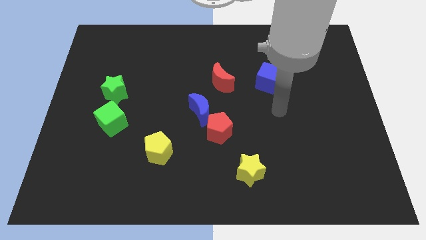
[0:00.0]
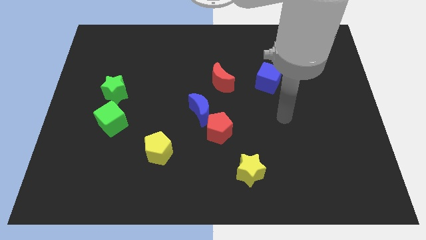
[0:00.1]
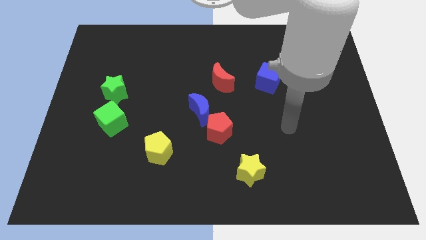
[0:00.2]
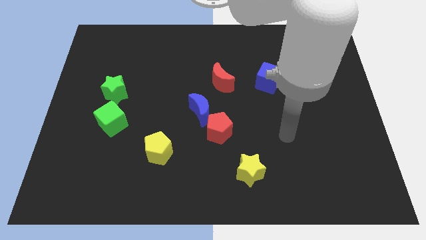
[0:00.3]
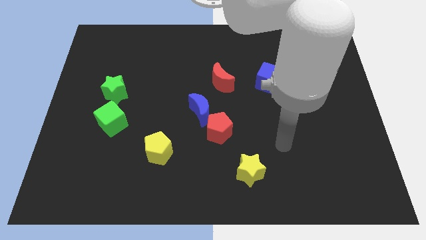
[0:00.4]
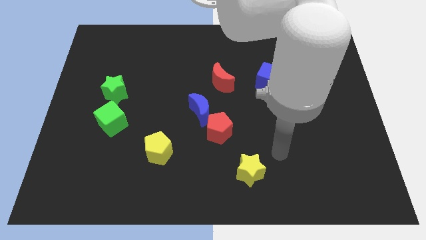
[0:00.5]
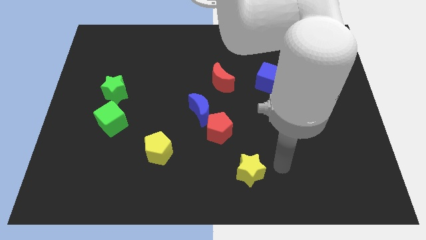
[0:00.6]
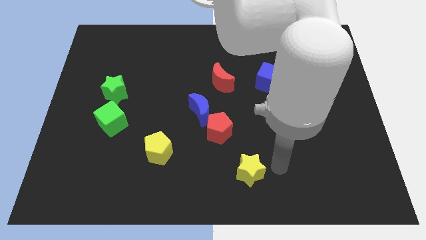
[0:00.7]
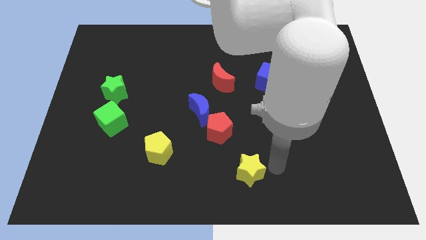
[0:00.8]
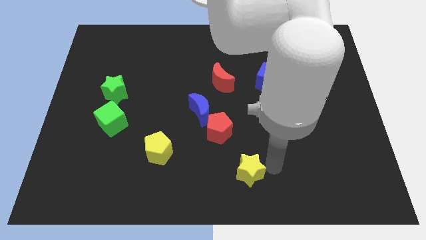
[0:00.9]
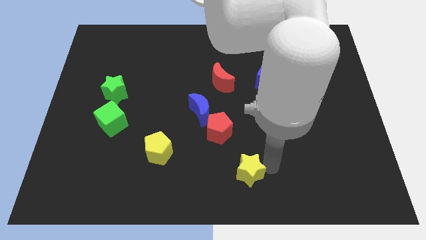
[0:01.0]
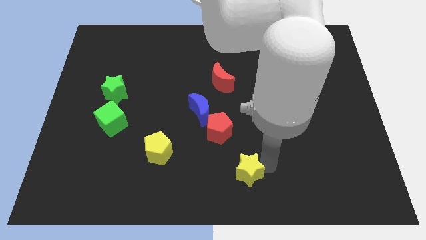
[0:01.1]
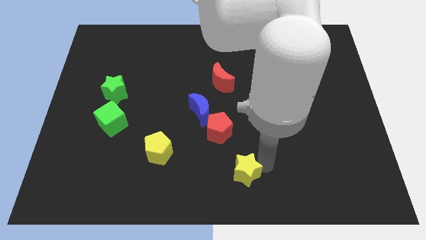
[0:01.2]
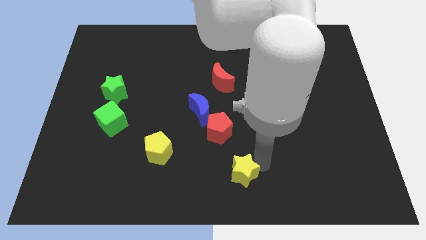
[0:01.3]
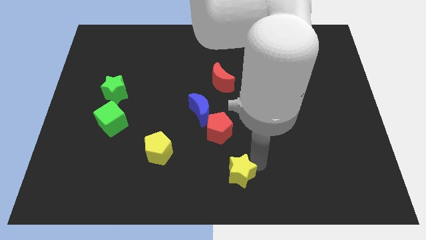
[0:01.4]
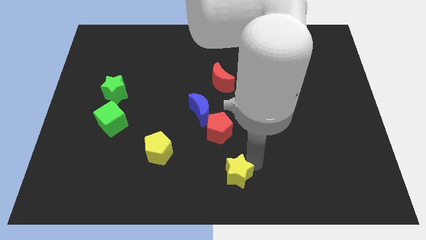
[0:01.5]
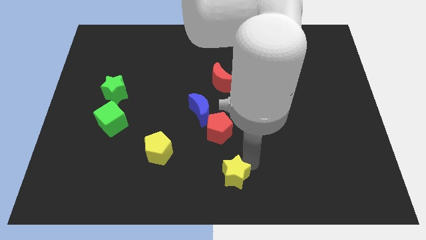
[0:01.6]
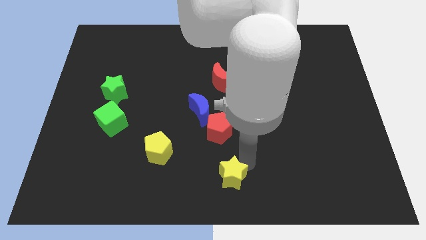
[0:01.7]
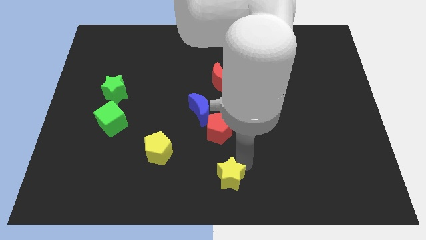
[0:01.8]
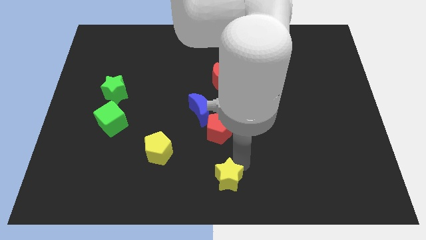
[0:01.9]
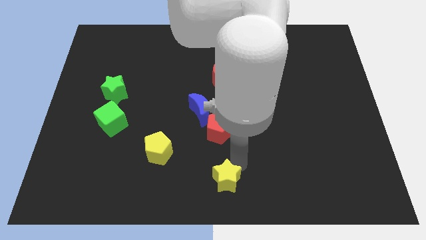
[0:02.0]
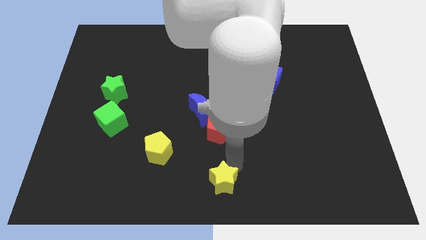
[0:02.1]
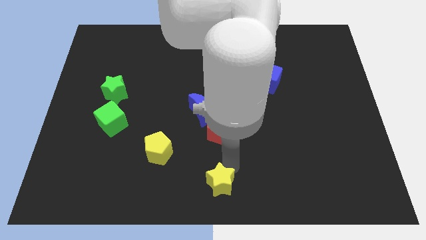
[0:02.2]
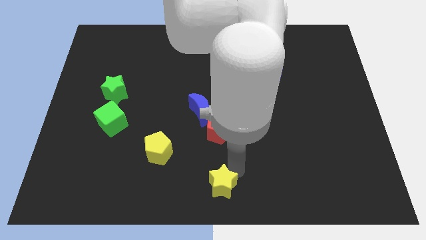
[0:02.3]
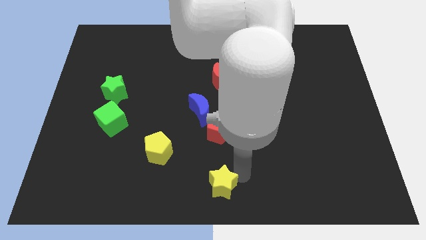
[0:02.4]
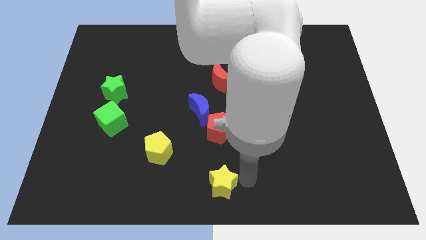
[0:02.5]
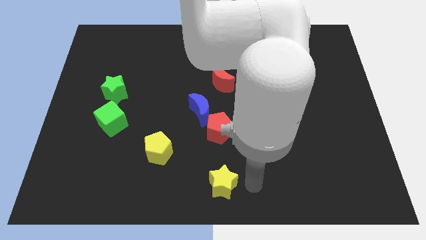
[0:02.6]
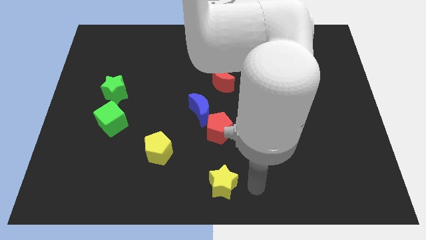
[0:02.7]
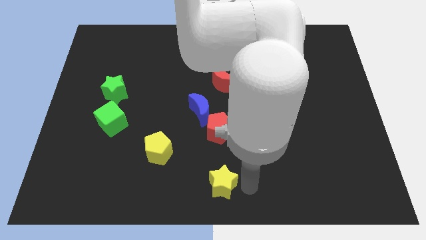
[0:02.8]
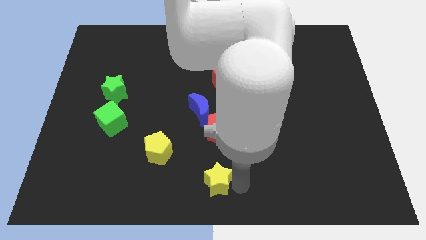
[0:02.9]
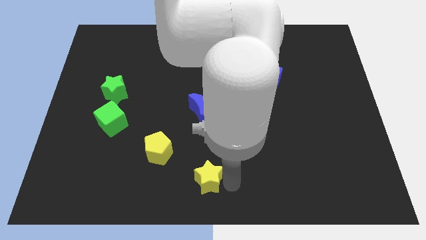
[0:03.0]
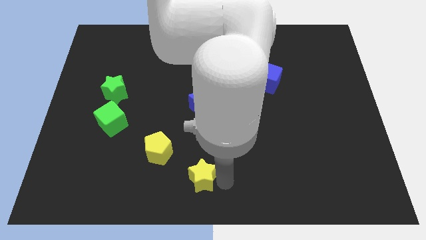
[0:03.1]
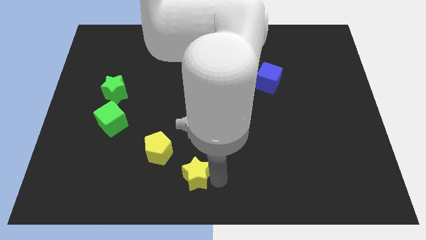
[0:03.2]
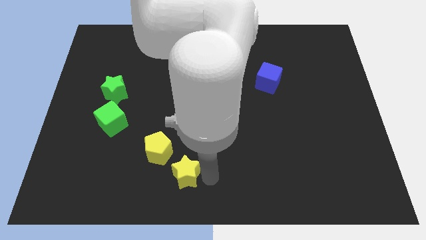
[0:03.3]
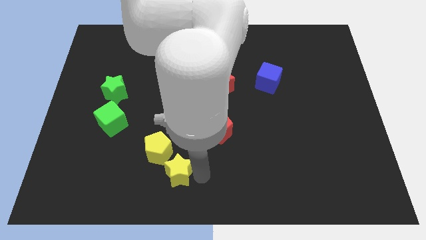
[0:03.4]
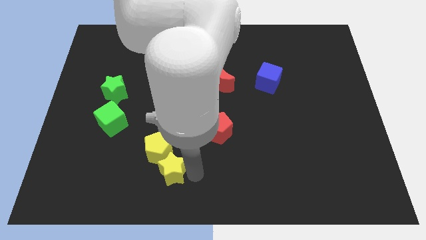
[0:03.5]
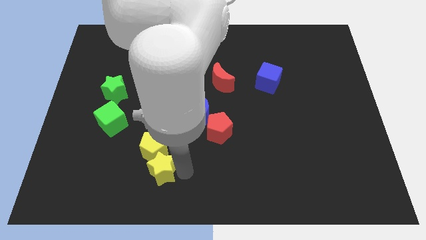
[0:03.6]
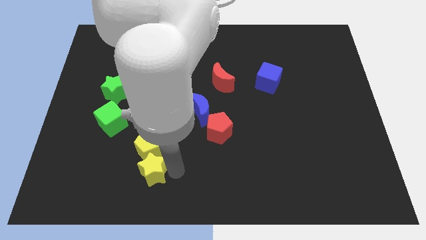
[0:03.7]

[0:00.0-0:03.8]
move the yellow star to the left

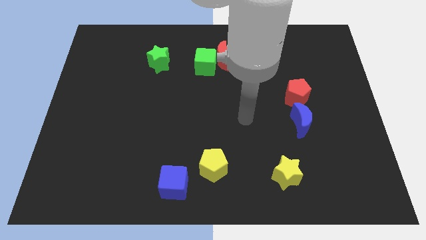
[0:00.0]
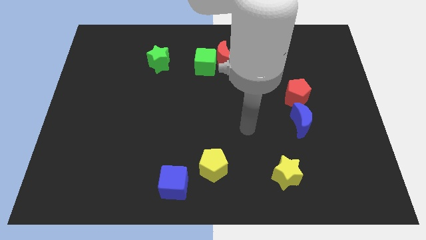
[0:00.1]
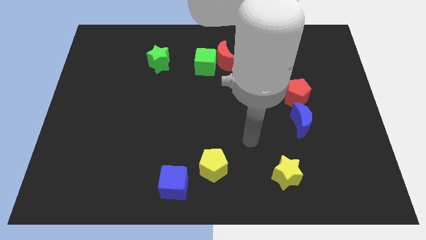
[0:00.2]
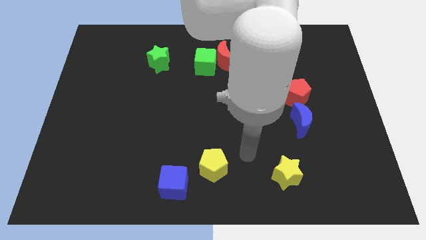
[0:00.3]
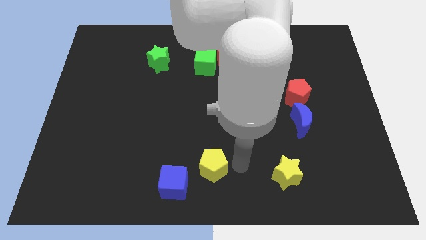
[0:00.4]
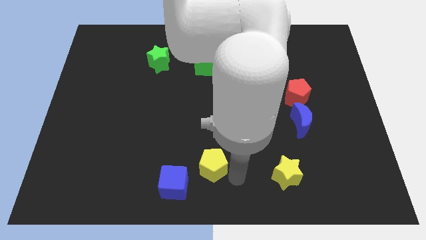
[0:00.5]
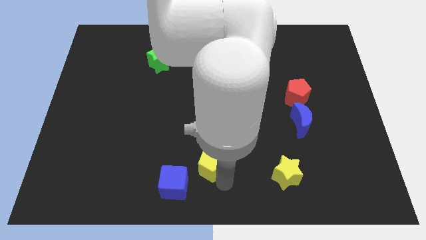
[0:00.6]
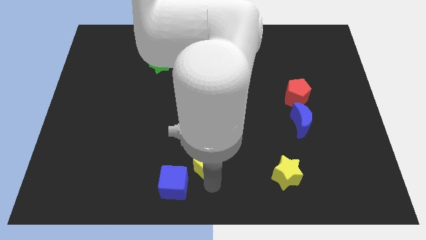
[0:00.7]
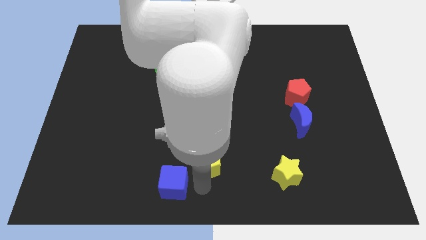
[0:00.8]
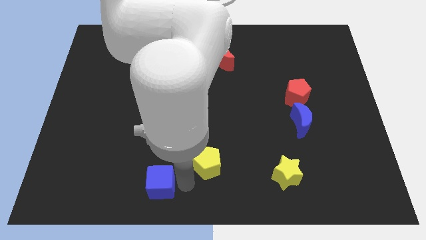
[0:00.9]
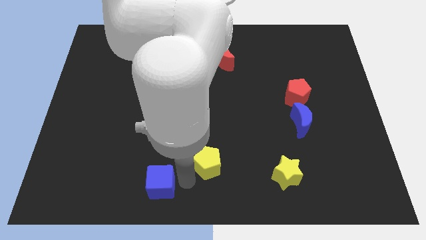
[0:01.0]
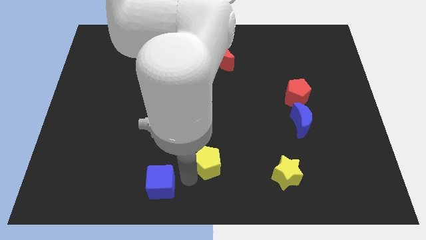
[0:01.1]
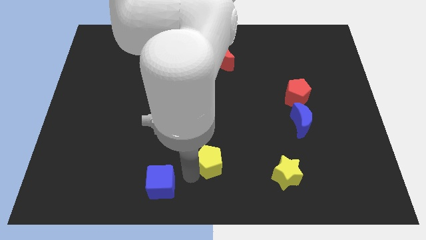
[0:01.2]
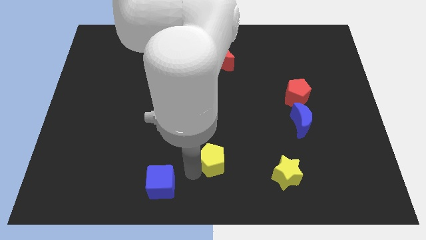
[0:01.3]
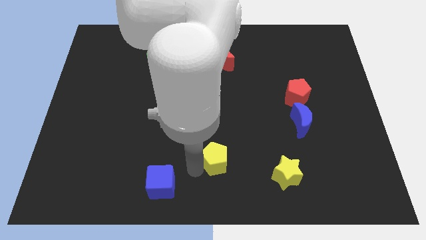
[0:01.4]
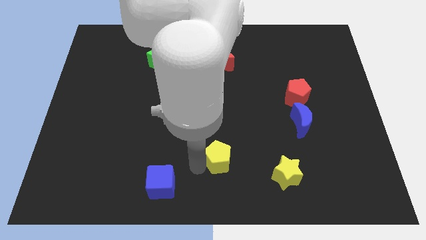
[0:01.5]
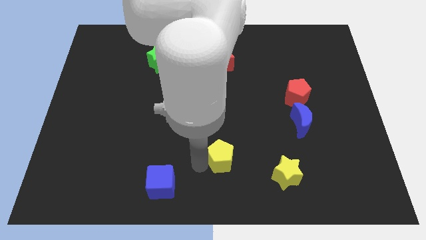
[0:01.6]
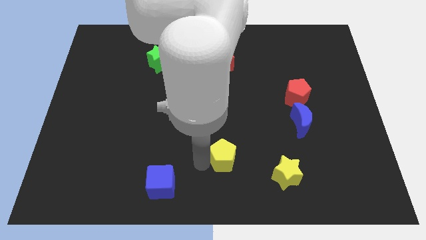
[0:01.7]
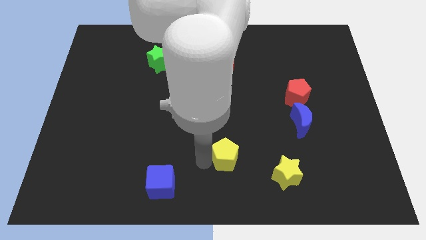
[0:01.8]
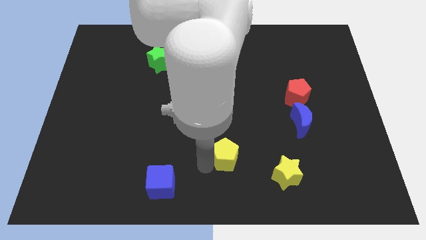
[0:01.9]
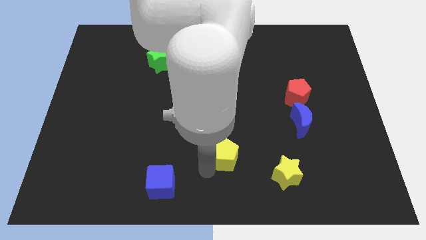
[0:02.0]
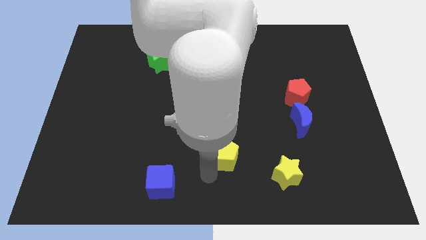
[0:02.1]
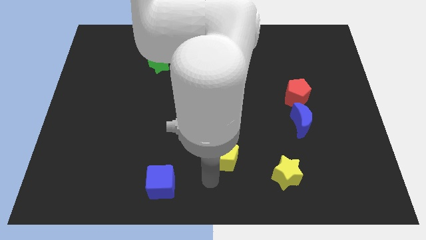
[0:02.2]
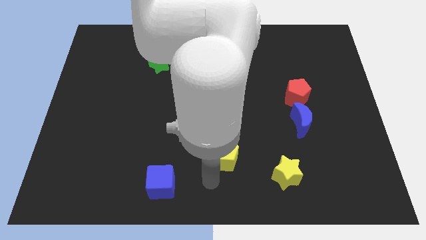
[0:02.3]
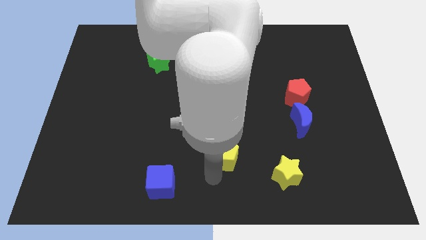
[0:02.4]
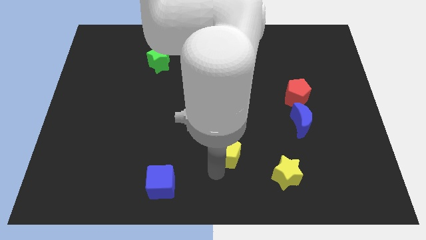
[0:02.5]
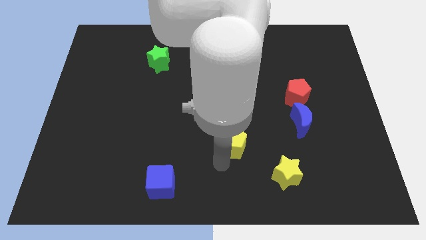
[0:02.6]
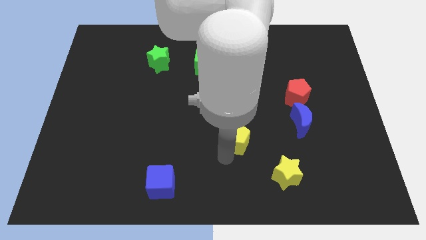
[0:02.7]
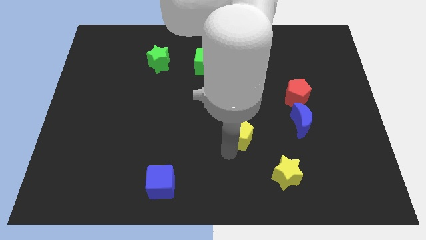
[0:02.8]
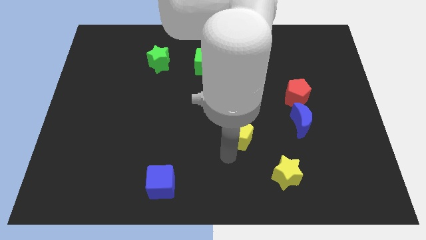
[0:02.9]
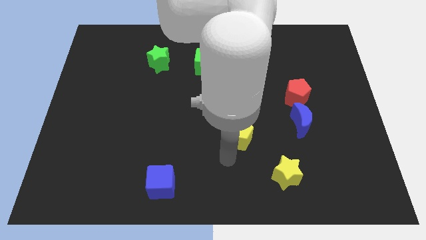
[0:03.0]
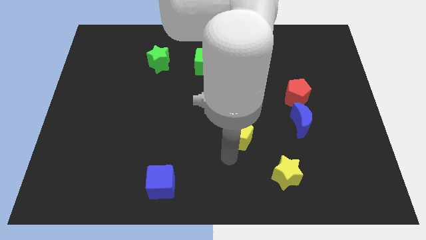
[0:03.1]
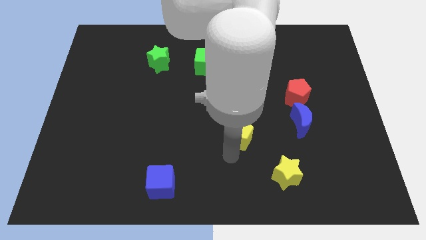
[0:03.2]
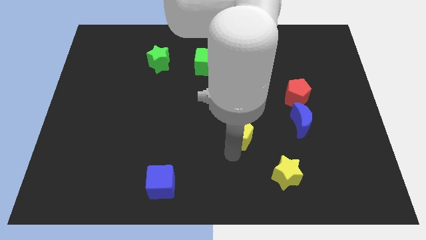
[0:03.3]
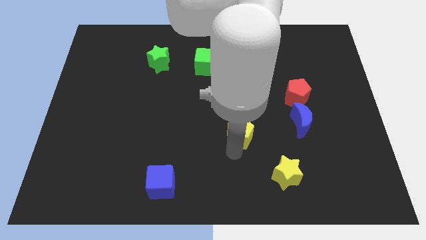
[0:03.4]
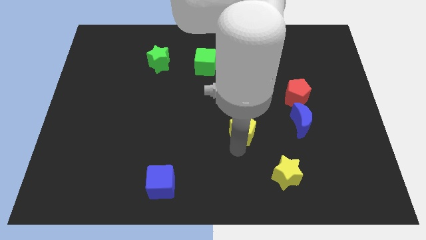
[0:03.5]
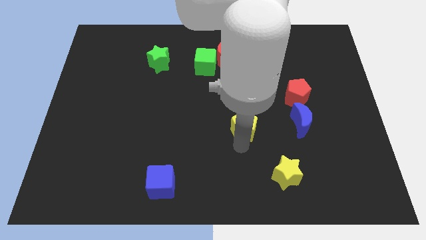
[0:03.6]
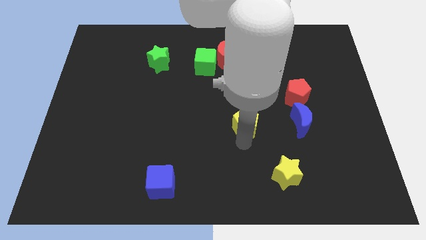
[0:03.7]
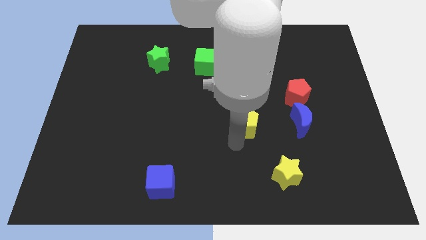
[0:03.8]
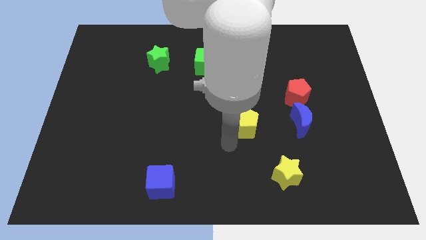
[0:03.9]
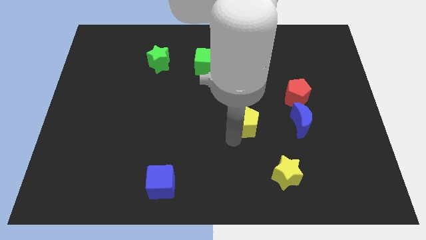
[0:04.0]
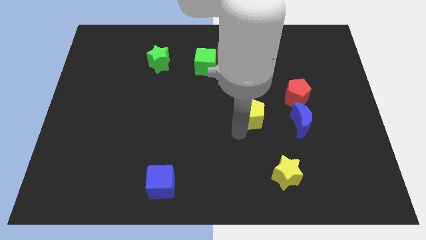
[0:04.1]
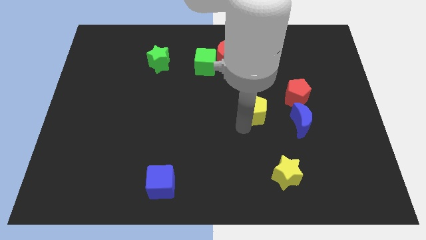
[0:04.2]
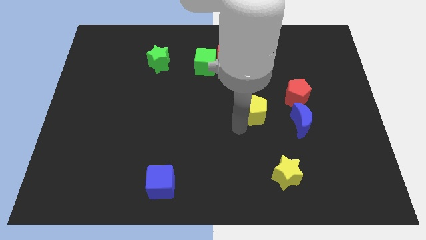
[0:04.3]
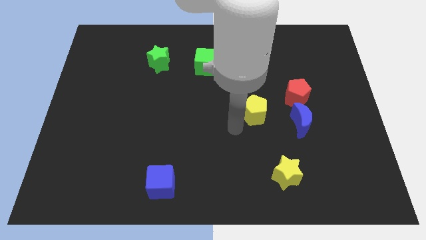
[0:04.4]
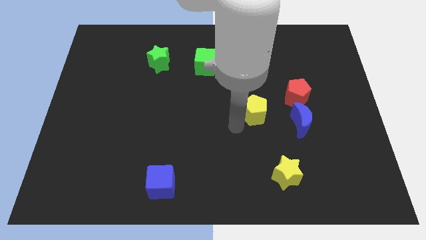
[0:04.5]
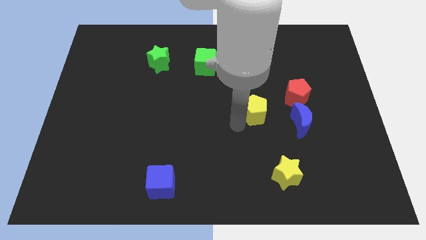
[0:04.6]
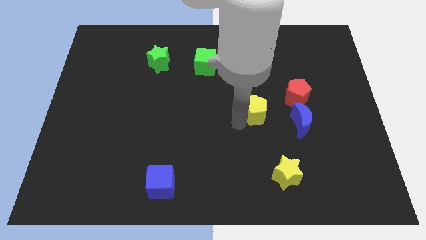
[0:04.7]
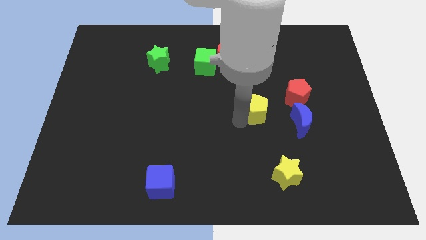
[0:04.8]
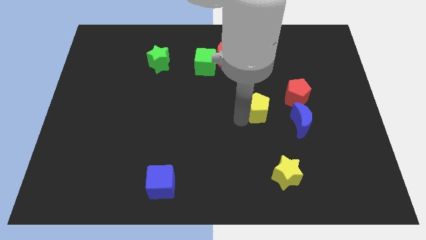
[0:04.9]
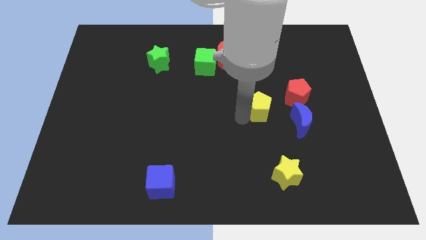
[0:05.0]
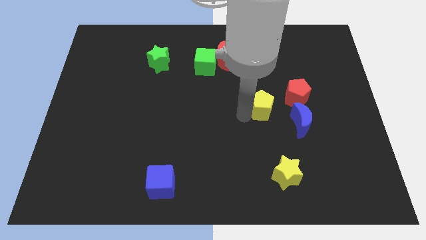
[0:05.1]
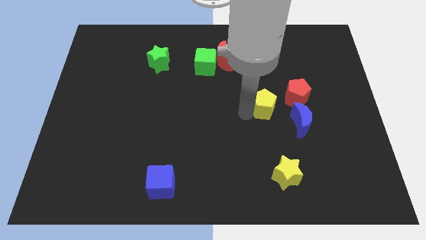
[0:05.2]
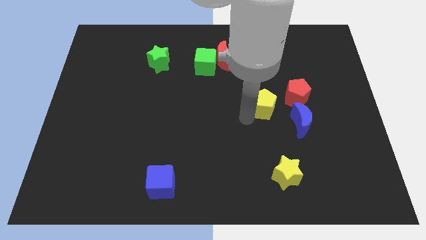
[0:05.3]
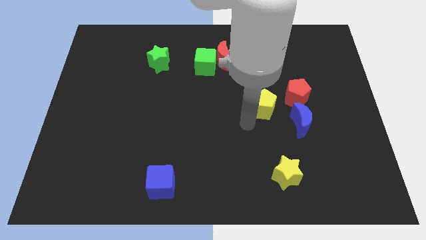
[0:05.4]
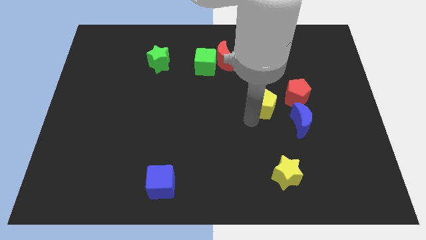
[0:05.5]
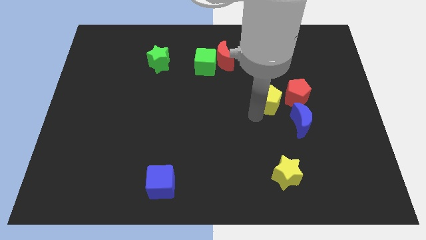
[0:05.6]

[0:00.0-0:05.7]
move the yellow pentagon upwards and then right
